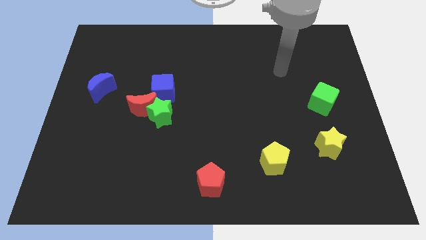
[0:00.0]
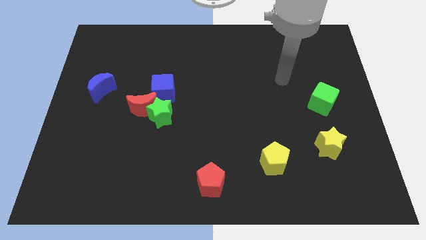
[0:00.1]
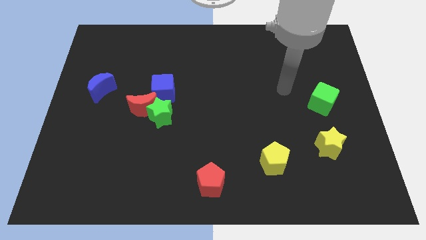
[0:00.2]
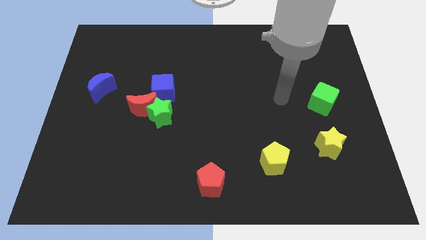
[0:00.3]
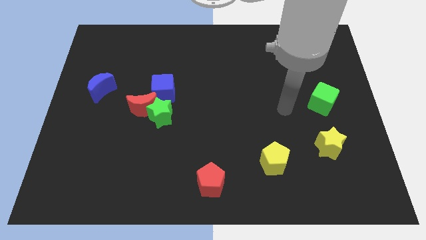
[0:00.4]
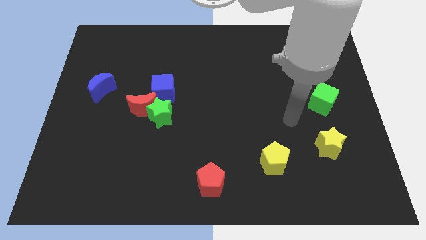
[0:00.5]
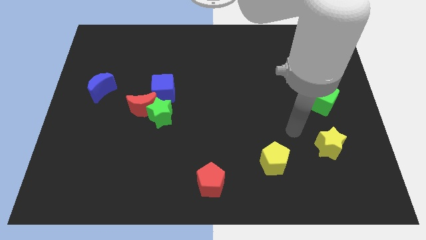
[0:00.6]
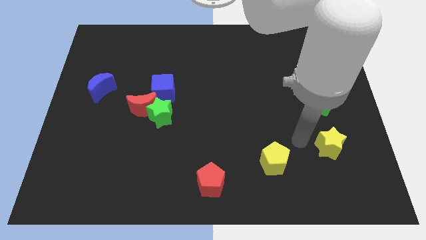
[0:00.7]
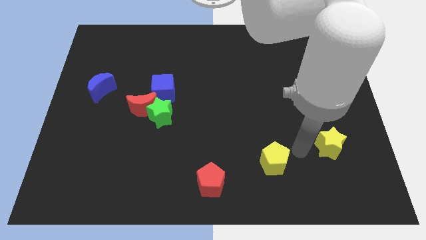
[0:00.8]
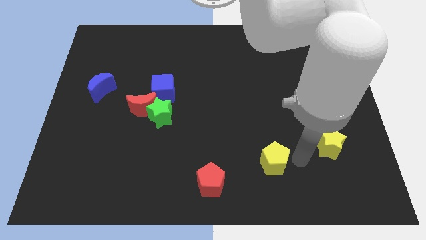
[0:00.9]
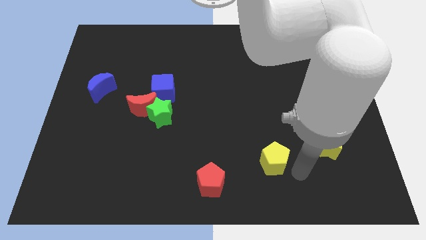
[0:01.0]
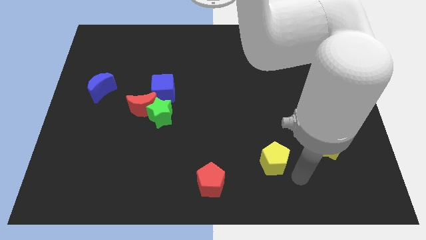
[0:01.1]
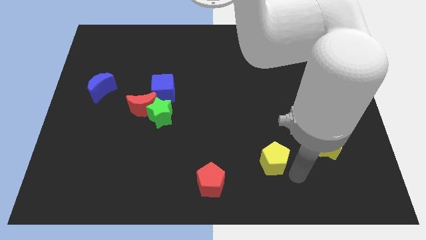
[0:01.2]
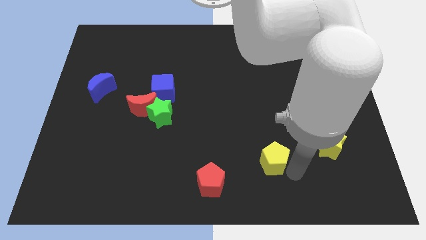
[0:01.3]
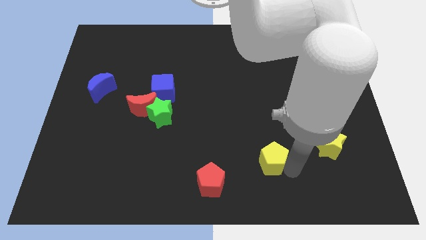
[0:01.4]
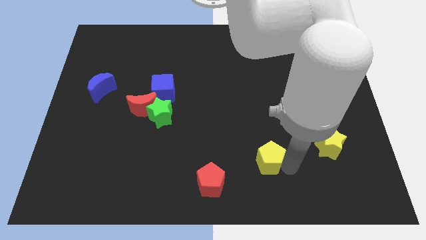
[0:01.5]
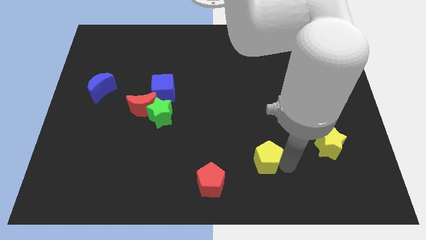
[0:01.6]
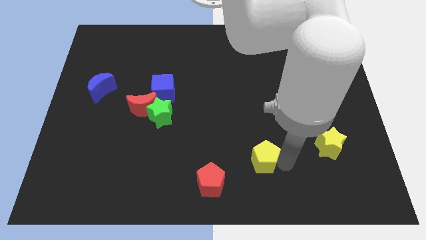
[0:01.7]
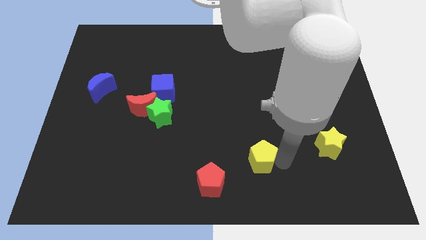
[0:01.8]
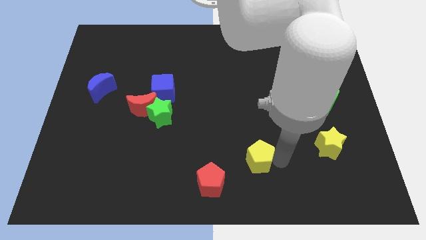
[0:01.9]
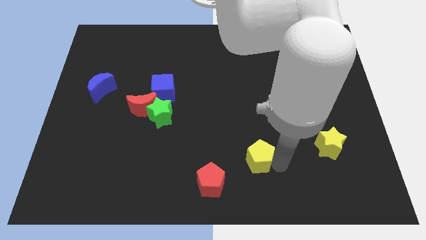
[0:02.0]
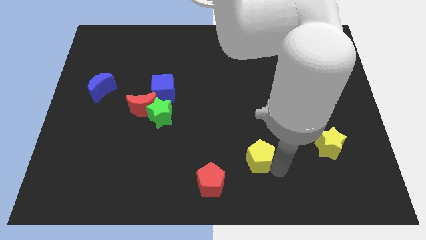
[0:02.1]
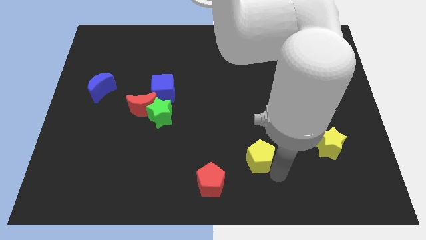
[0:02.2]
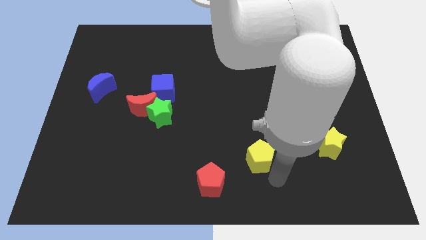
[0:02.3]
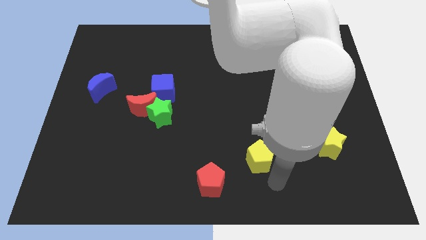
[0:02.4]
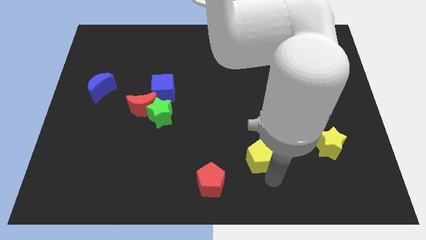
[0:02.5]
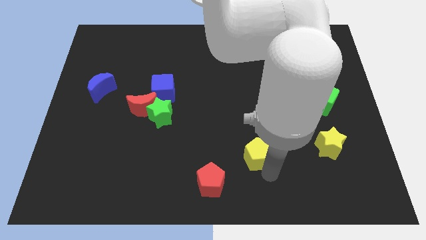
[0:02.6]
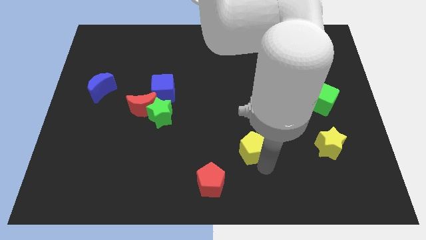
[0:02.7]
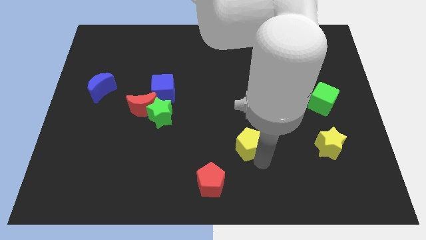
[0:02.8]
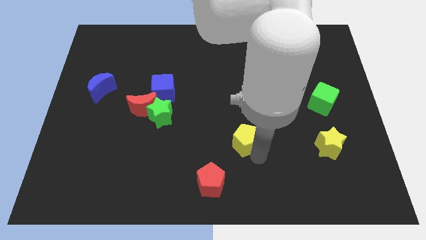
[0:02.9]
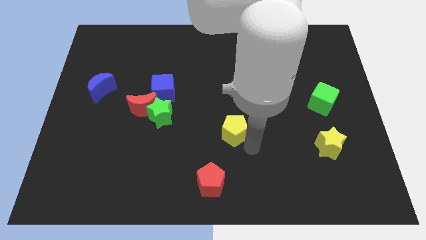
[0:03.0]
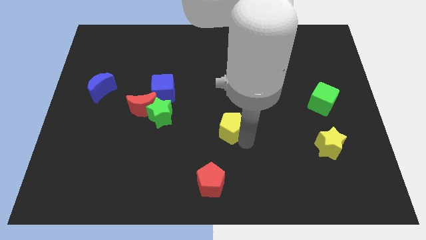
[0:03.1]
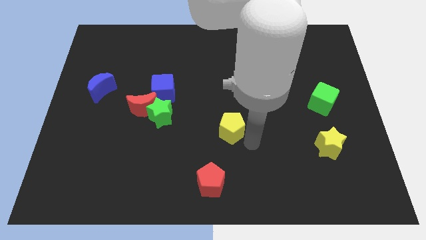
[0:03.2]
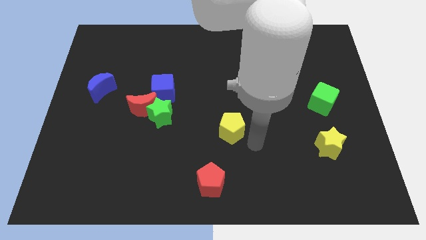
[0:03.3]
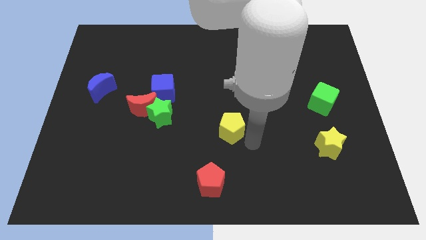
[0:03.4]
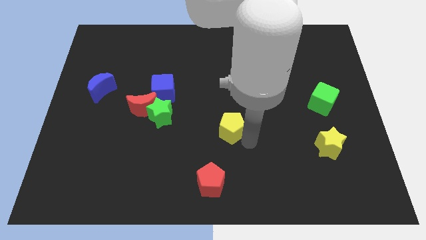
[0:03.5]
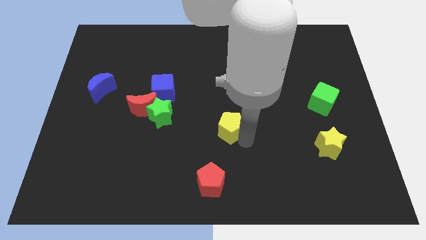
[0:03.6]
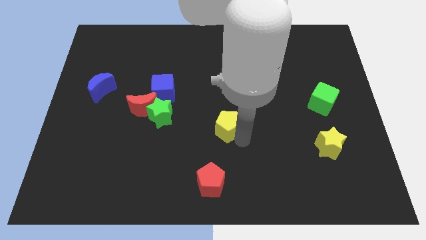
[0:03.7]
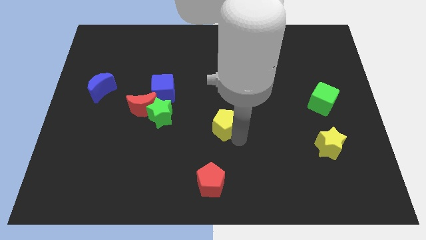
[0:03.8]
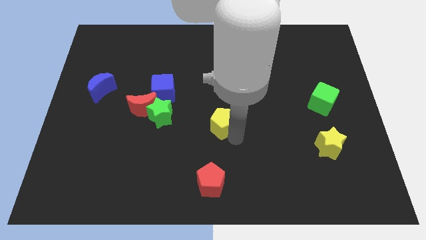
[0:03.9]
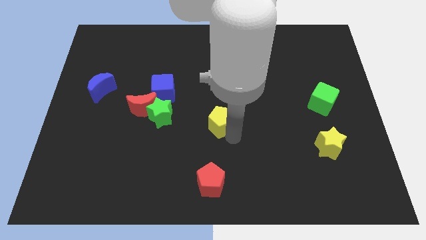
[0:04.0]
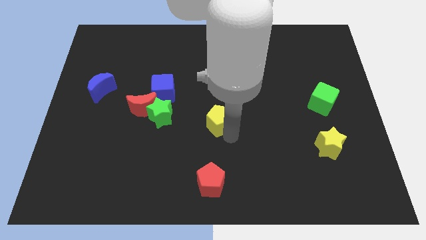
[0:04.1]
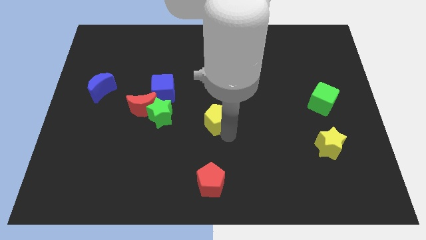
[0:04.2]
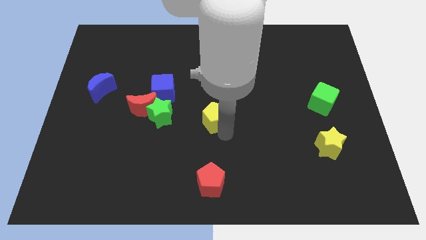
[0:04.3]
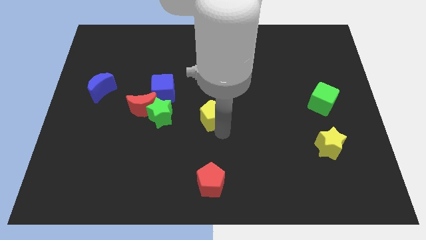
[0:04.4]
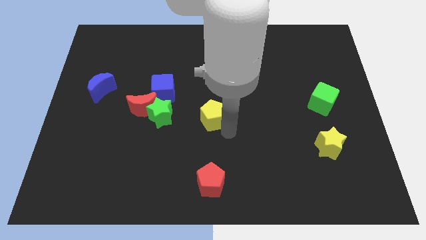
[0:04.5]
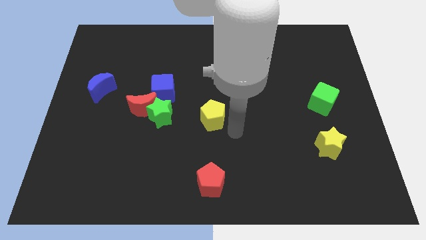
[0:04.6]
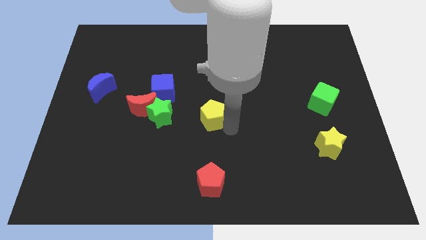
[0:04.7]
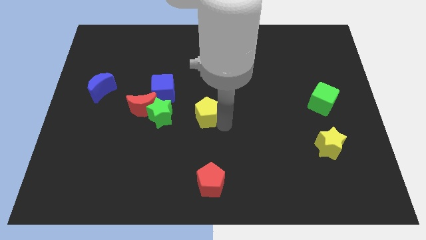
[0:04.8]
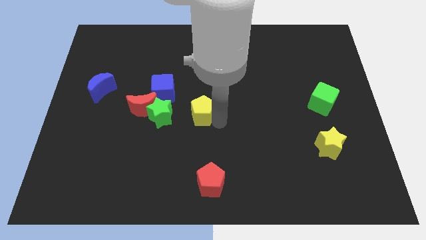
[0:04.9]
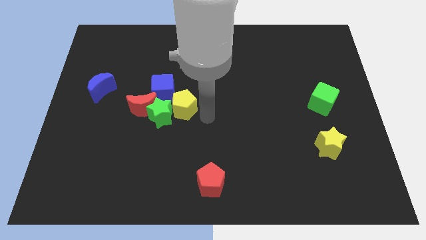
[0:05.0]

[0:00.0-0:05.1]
move the yellow pentagon up and then left

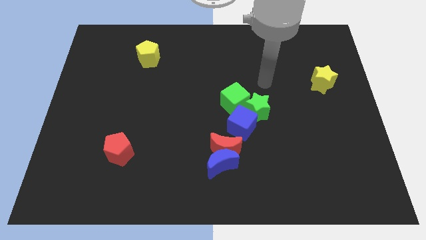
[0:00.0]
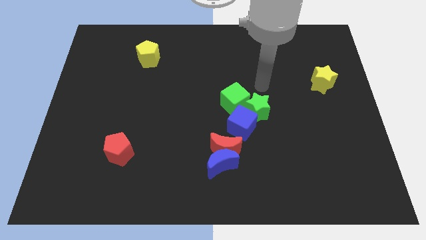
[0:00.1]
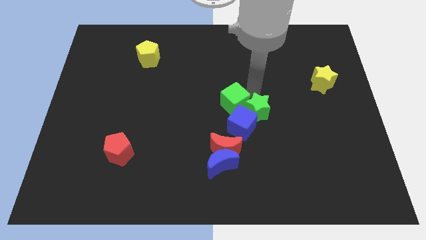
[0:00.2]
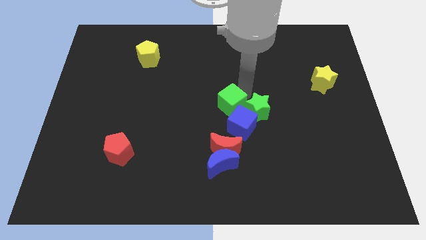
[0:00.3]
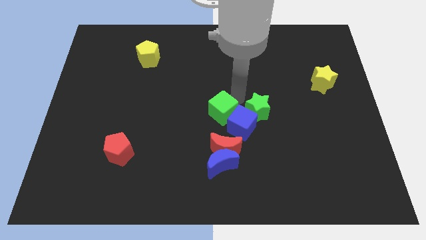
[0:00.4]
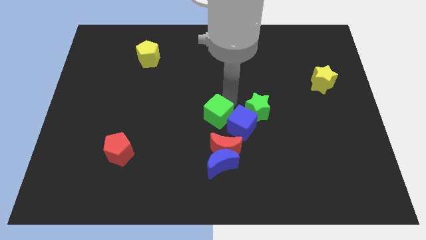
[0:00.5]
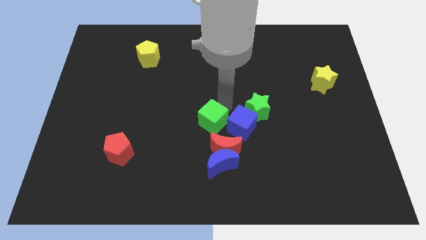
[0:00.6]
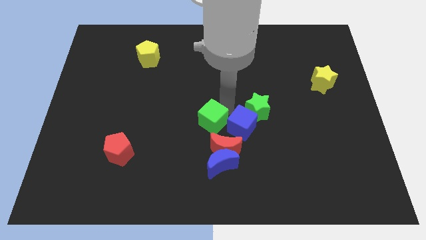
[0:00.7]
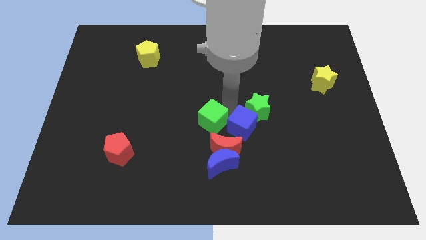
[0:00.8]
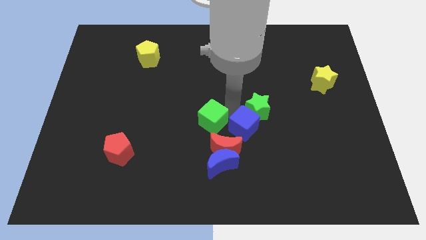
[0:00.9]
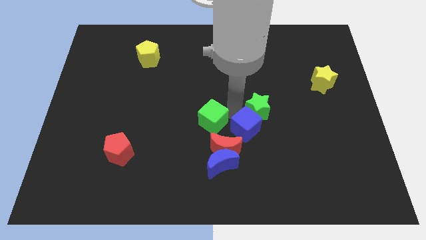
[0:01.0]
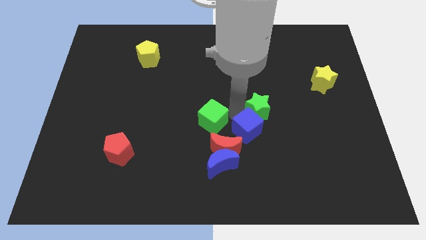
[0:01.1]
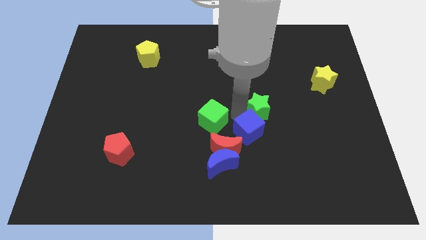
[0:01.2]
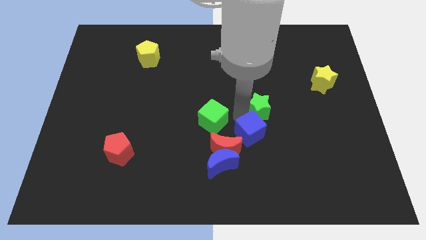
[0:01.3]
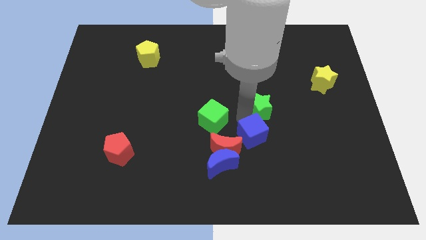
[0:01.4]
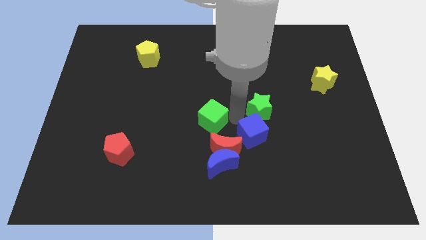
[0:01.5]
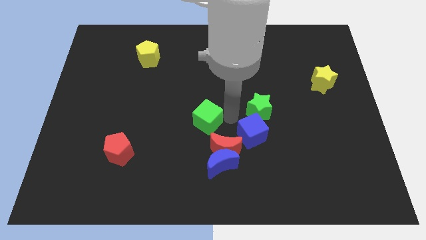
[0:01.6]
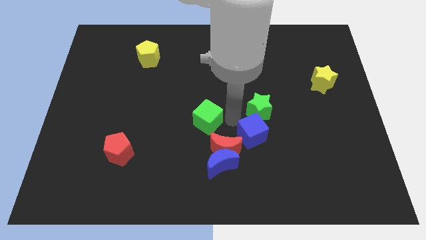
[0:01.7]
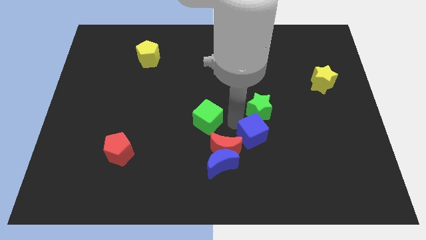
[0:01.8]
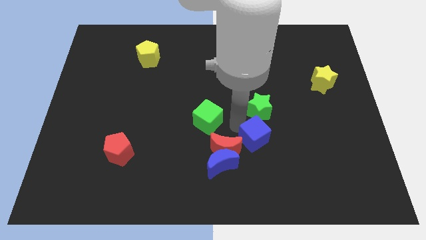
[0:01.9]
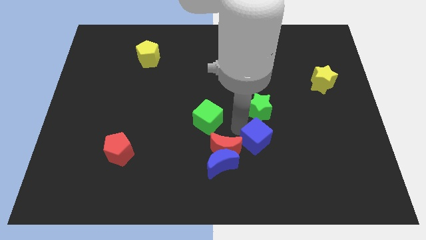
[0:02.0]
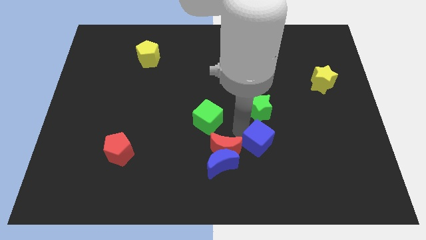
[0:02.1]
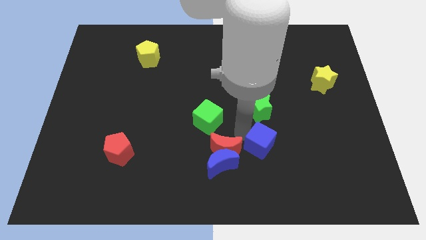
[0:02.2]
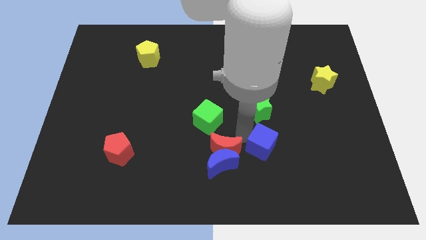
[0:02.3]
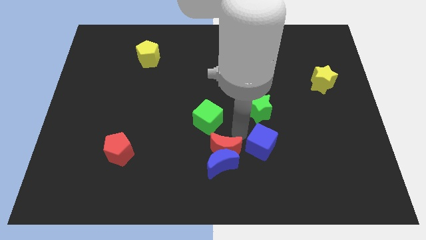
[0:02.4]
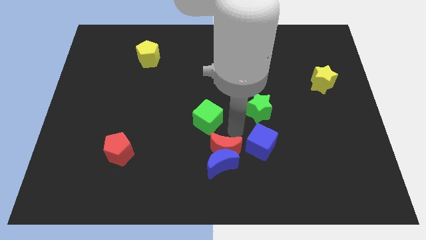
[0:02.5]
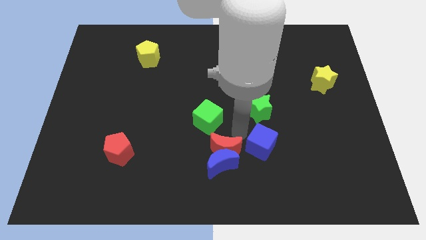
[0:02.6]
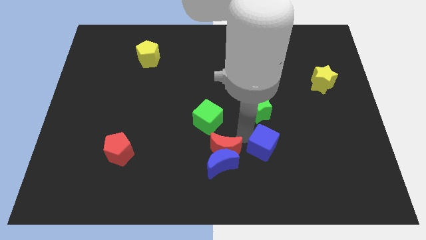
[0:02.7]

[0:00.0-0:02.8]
slide the blue cube a bit diagonally downwards and right
